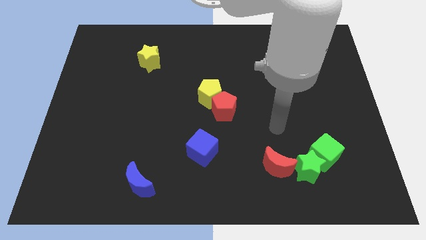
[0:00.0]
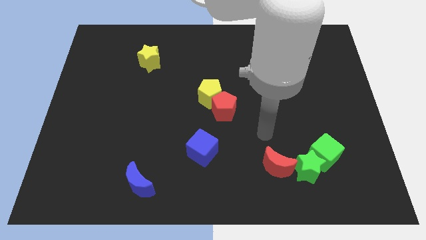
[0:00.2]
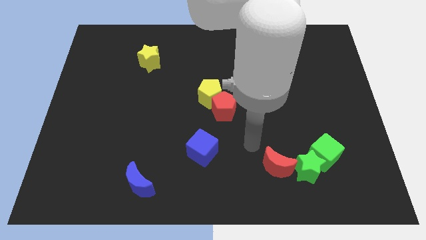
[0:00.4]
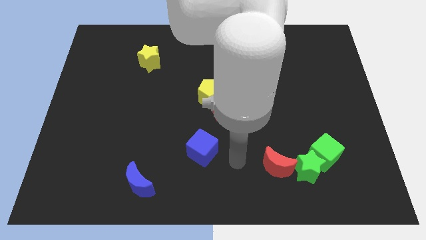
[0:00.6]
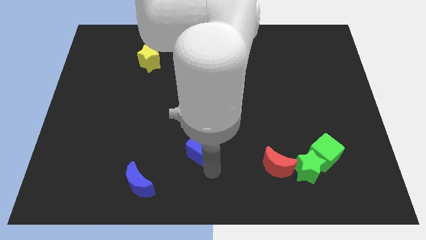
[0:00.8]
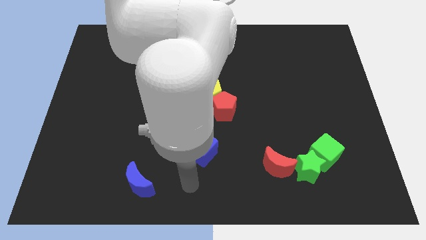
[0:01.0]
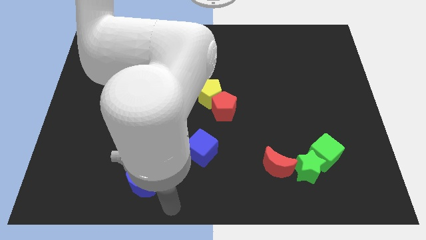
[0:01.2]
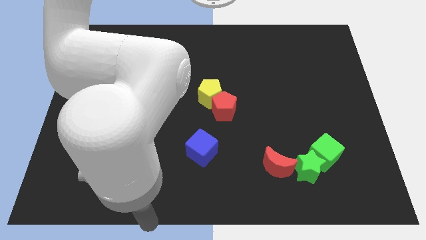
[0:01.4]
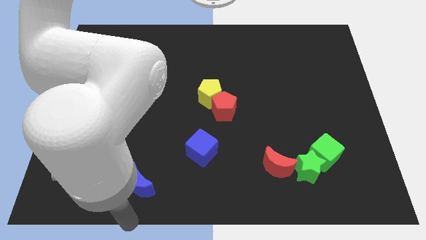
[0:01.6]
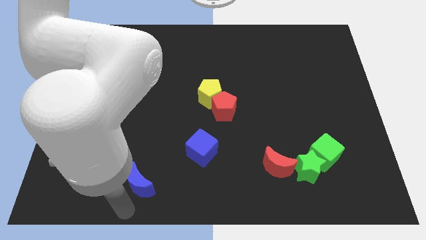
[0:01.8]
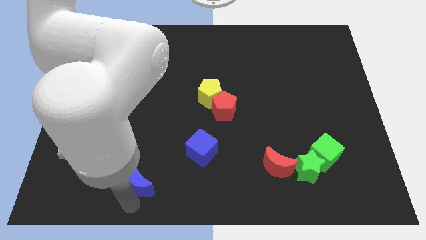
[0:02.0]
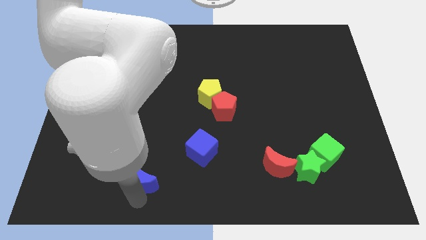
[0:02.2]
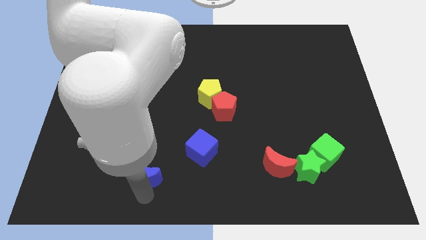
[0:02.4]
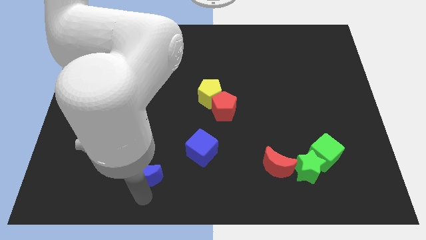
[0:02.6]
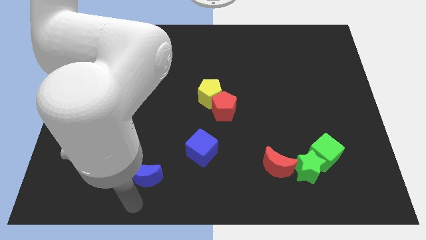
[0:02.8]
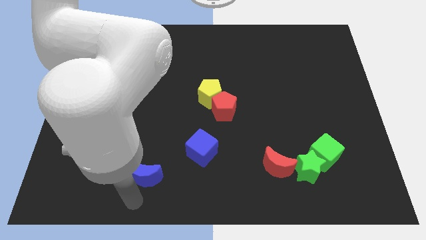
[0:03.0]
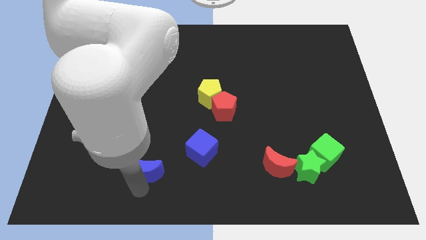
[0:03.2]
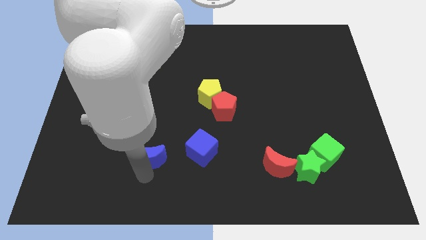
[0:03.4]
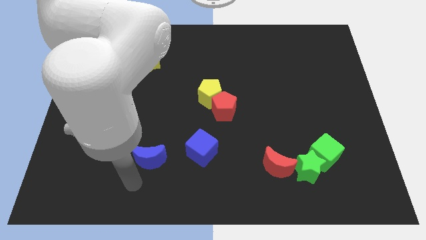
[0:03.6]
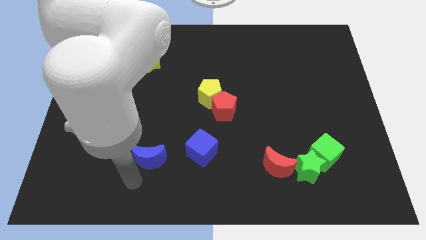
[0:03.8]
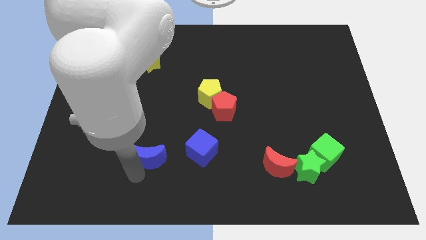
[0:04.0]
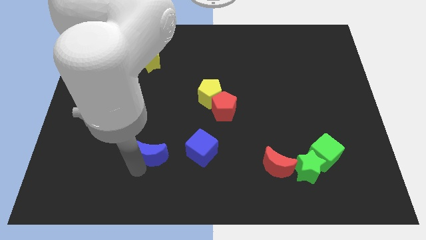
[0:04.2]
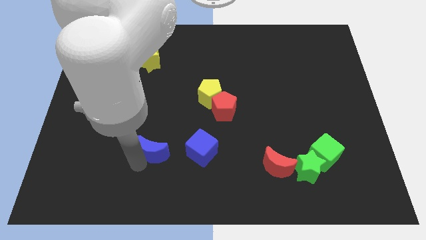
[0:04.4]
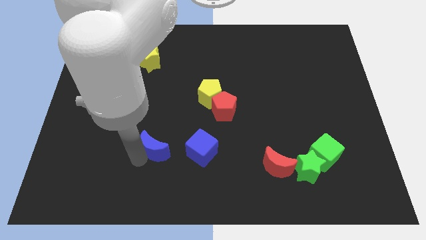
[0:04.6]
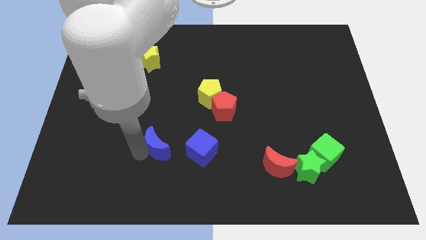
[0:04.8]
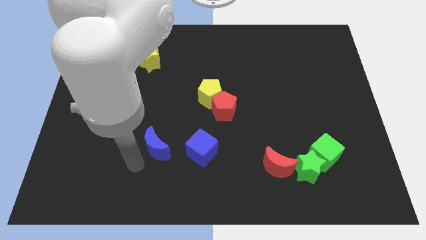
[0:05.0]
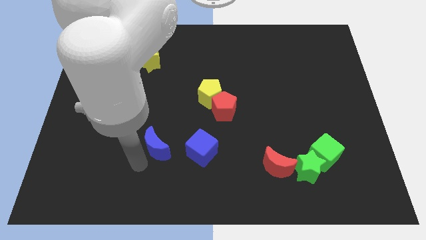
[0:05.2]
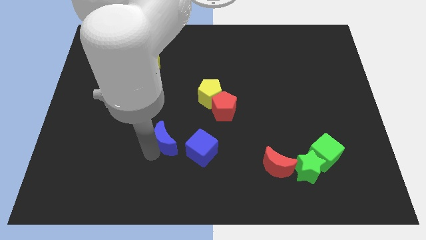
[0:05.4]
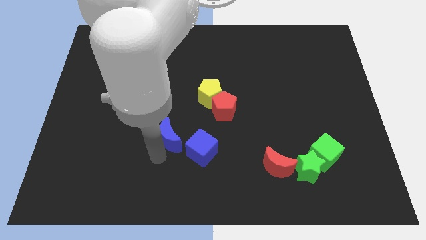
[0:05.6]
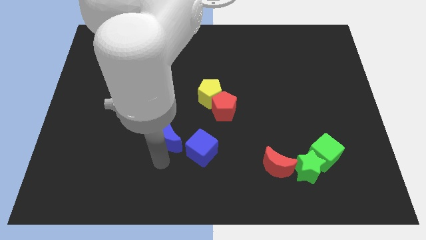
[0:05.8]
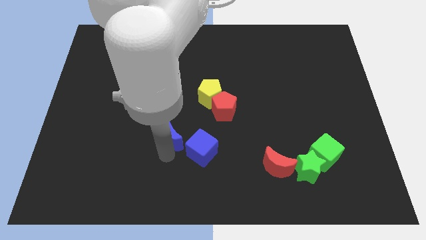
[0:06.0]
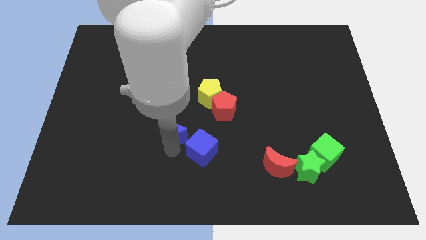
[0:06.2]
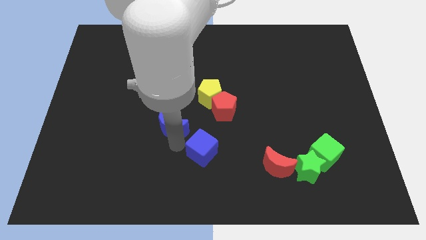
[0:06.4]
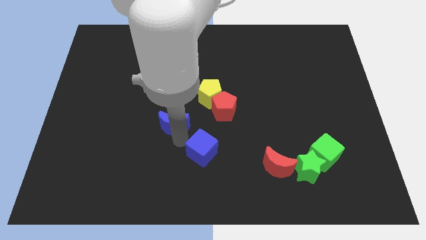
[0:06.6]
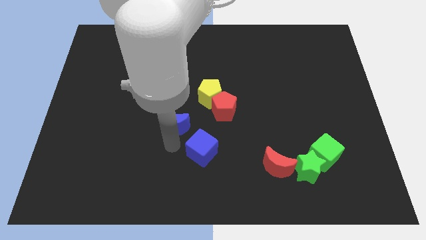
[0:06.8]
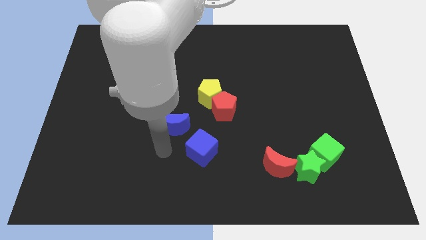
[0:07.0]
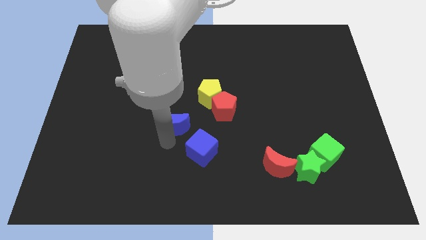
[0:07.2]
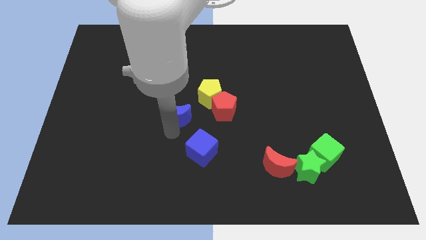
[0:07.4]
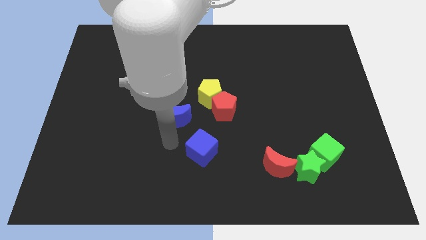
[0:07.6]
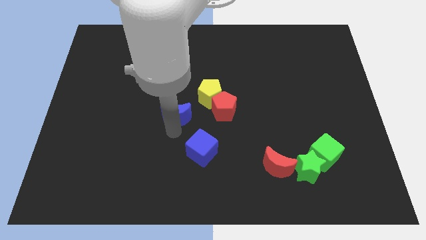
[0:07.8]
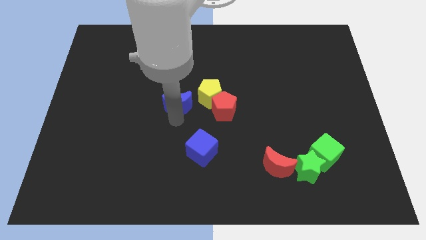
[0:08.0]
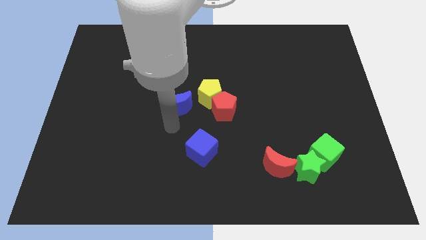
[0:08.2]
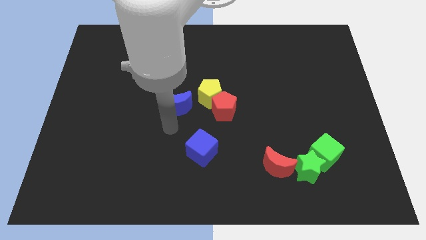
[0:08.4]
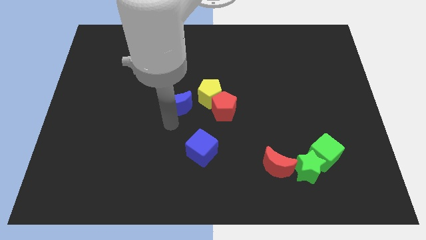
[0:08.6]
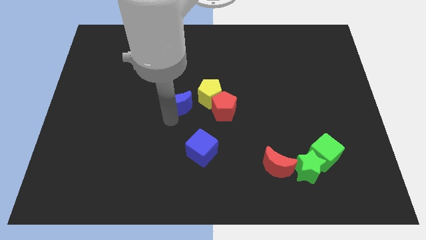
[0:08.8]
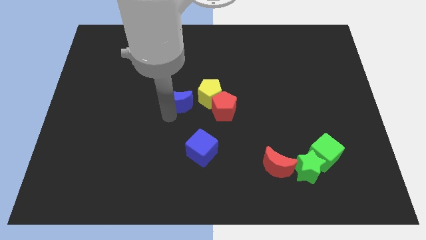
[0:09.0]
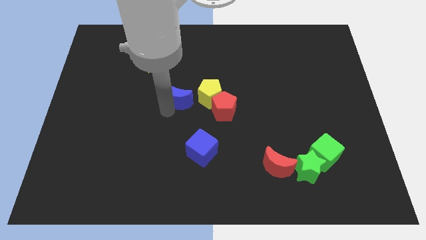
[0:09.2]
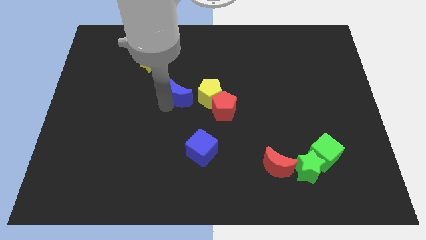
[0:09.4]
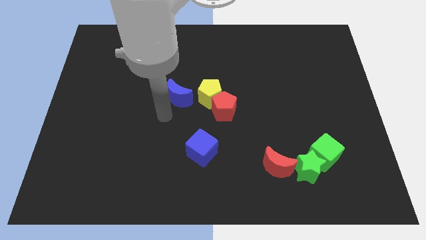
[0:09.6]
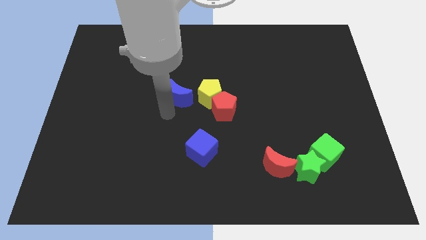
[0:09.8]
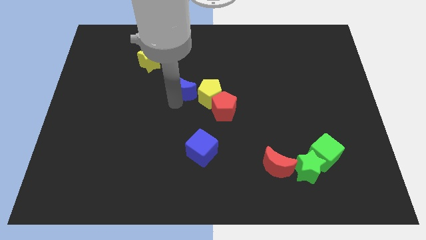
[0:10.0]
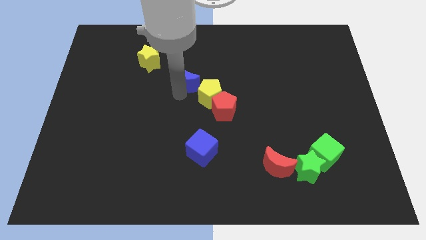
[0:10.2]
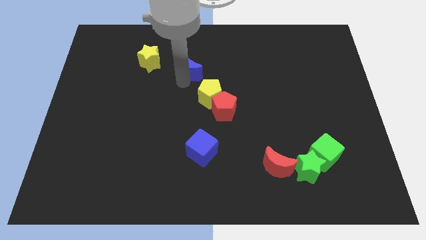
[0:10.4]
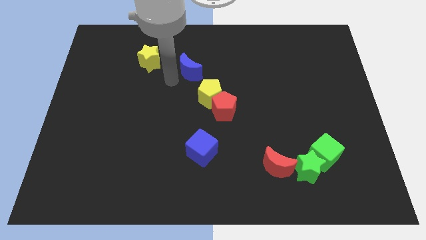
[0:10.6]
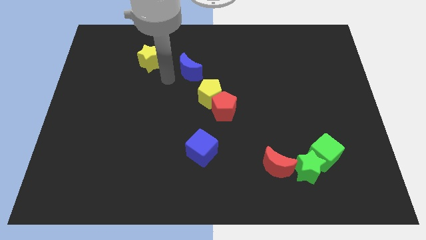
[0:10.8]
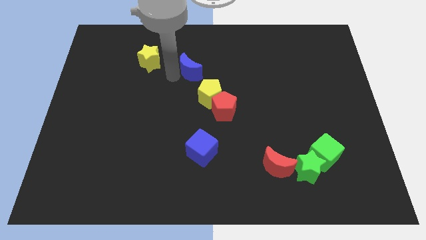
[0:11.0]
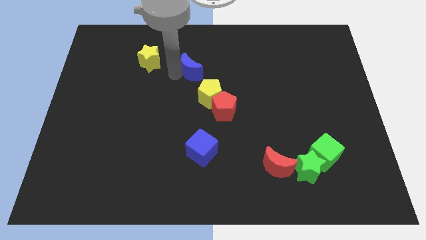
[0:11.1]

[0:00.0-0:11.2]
push the blue moon above the yellow pentagon
